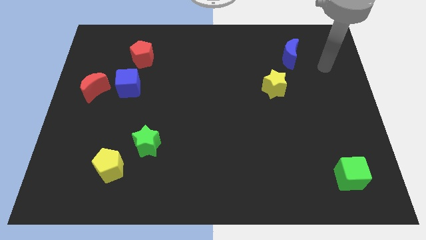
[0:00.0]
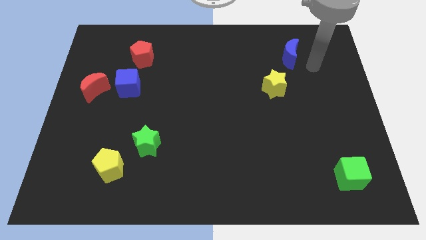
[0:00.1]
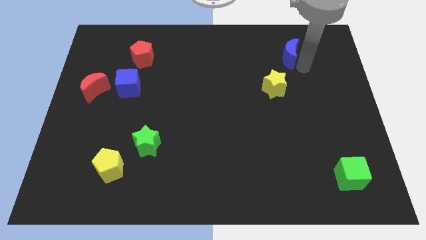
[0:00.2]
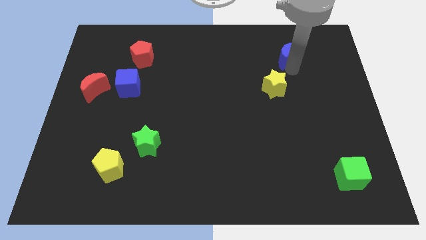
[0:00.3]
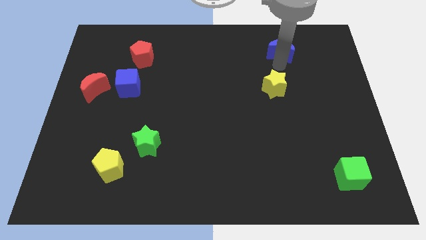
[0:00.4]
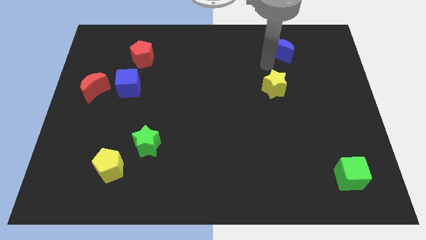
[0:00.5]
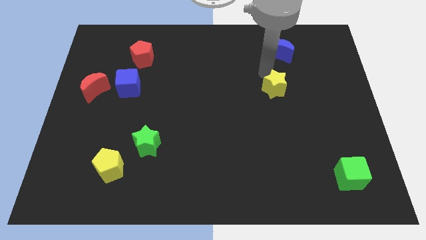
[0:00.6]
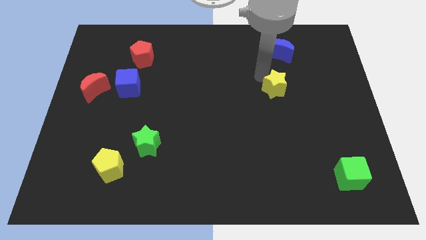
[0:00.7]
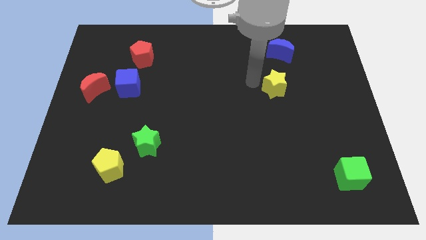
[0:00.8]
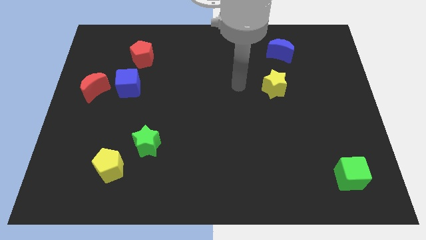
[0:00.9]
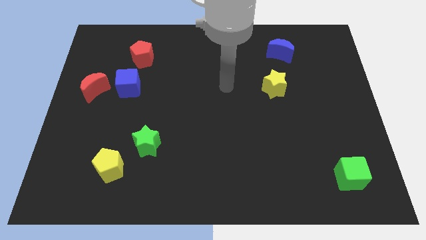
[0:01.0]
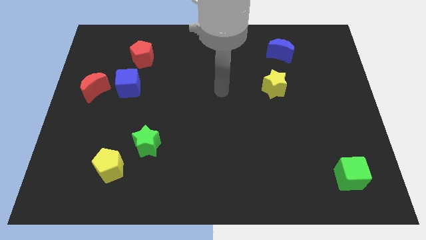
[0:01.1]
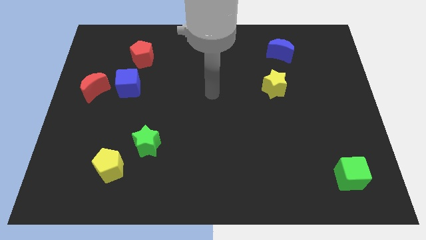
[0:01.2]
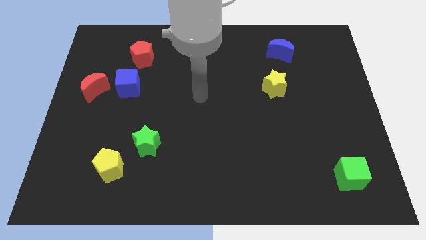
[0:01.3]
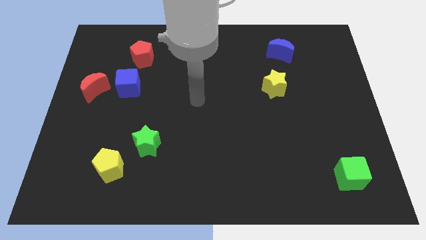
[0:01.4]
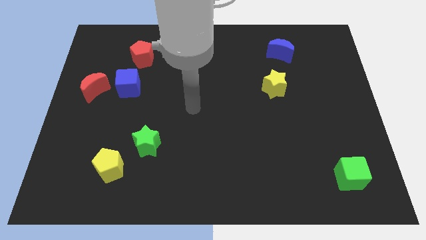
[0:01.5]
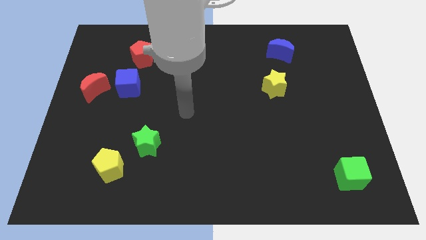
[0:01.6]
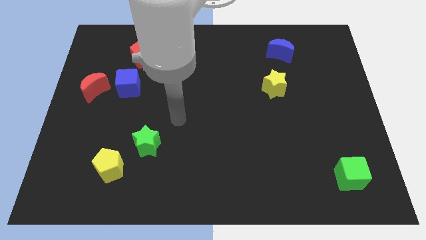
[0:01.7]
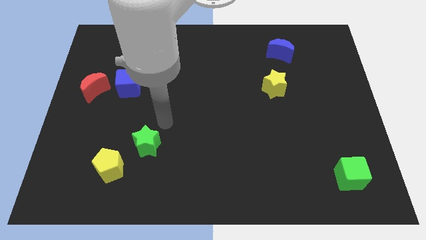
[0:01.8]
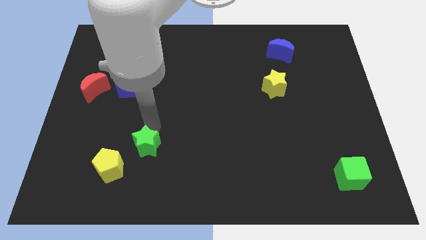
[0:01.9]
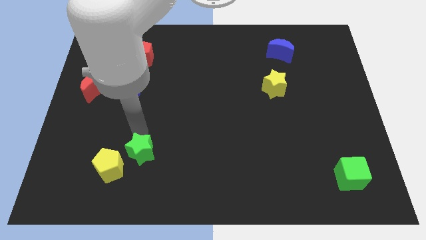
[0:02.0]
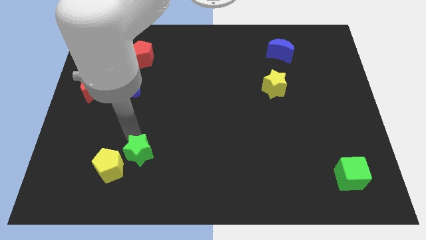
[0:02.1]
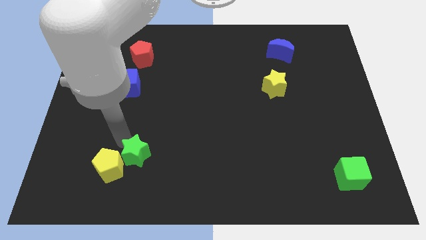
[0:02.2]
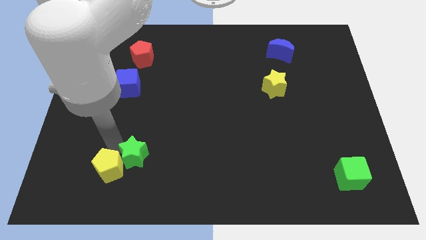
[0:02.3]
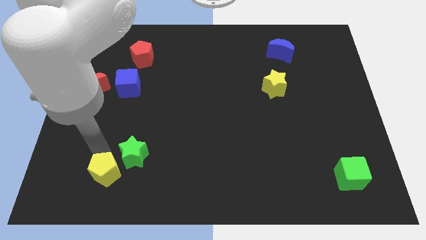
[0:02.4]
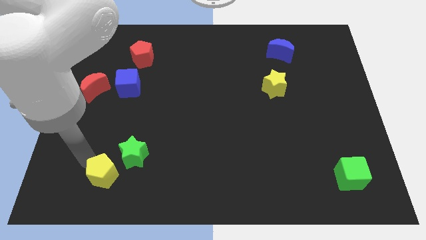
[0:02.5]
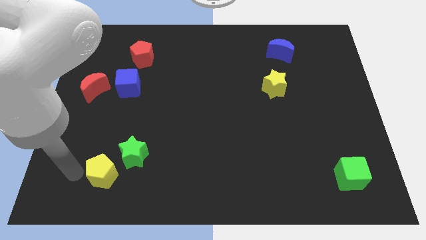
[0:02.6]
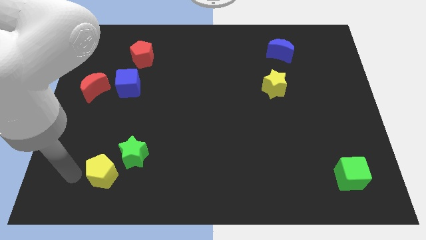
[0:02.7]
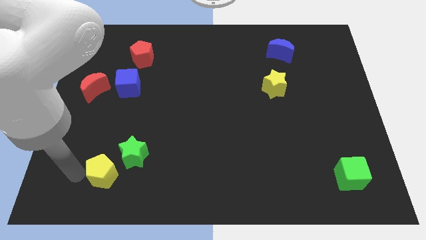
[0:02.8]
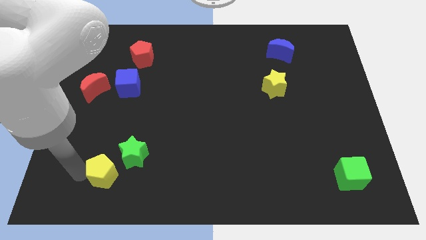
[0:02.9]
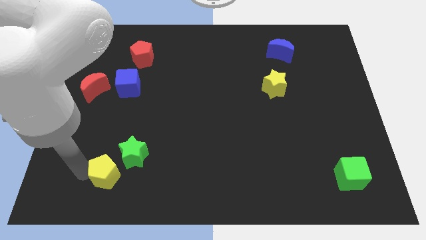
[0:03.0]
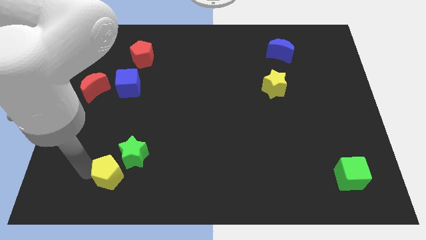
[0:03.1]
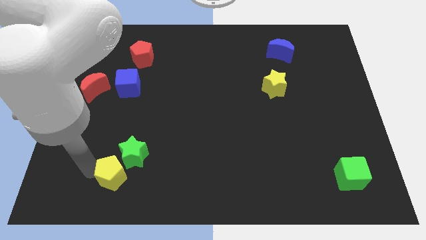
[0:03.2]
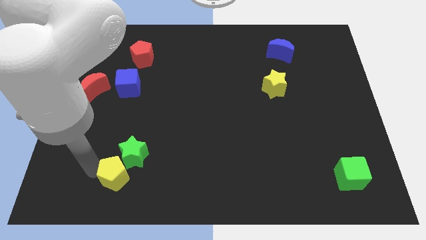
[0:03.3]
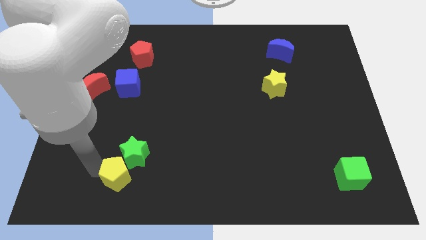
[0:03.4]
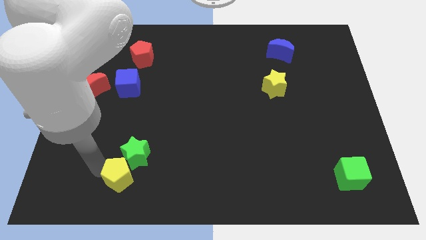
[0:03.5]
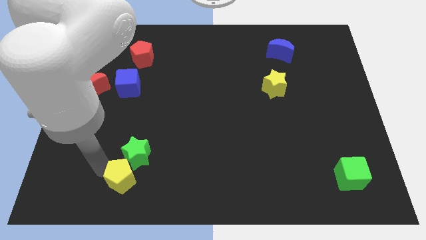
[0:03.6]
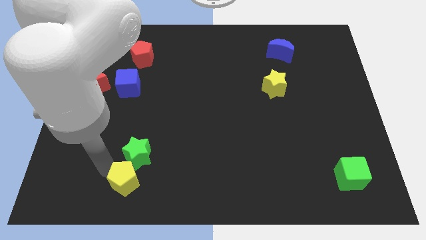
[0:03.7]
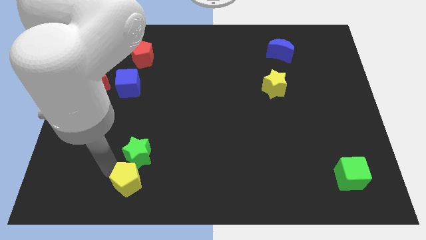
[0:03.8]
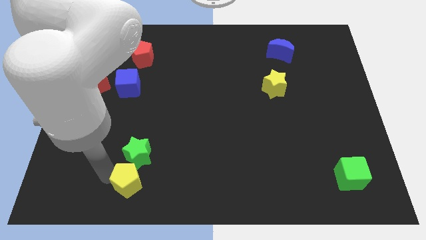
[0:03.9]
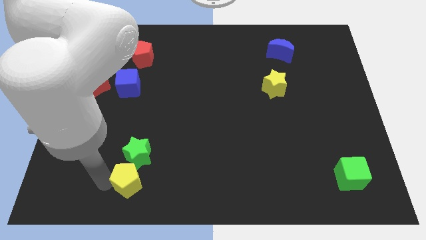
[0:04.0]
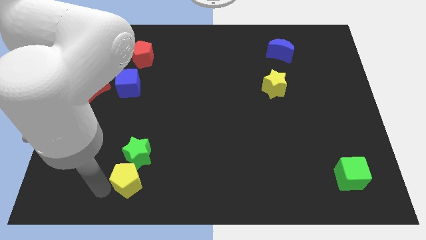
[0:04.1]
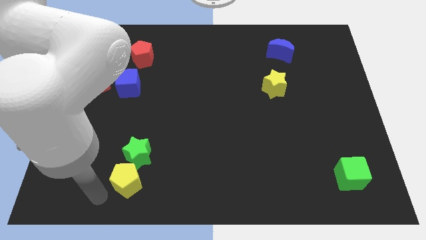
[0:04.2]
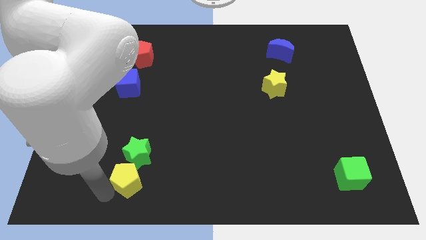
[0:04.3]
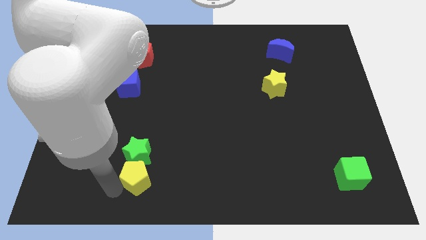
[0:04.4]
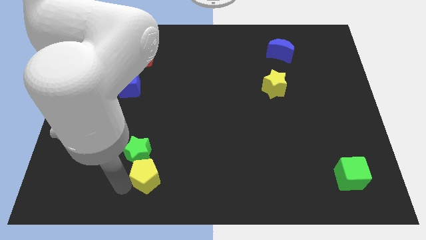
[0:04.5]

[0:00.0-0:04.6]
move the yellow pentagon a little bit to the right

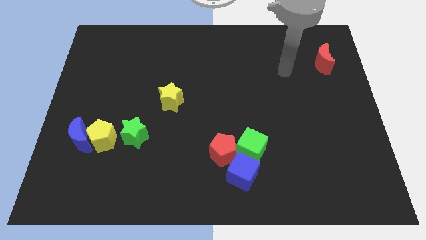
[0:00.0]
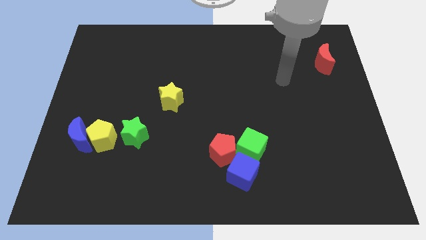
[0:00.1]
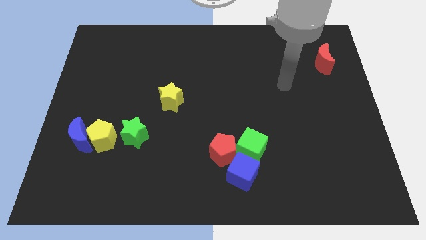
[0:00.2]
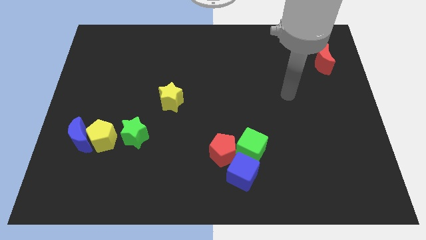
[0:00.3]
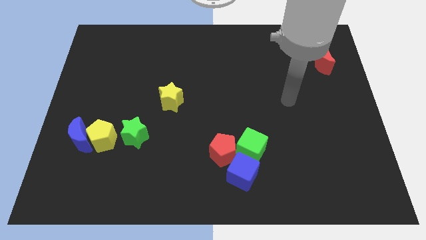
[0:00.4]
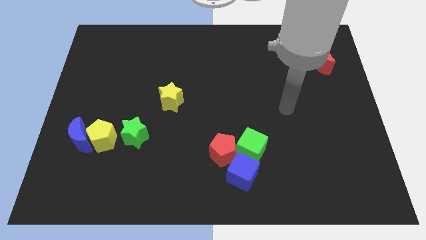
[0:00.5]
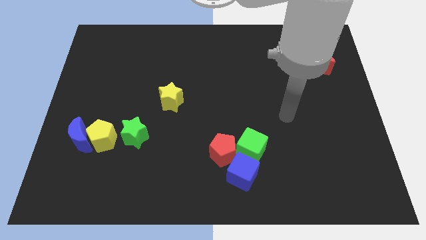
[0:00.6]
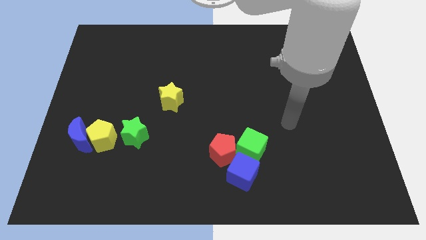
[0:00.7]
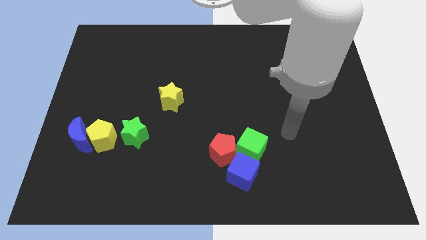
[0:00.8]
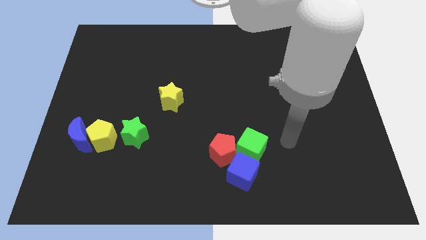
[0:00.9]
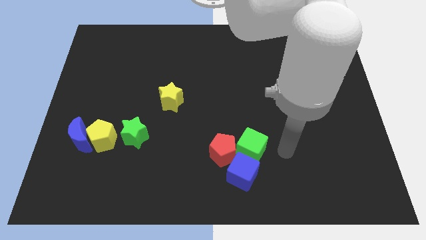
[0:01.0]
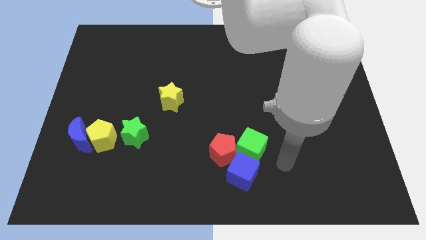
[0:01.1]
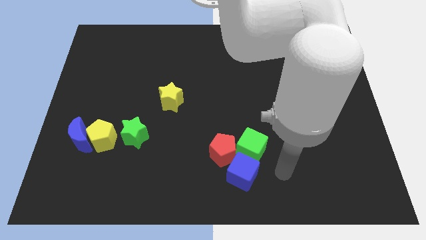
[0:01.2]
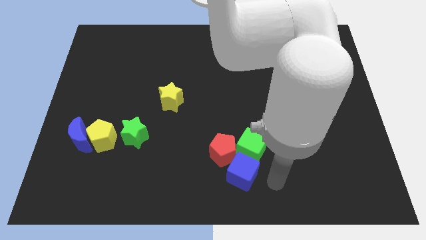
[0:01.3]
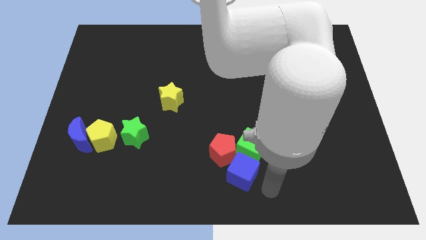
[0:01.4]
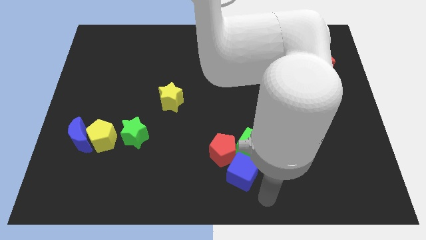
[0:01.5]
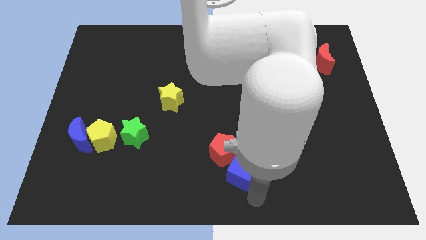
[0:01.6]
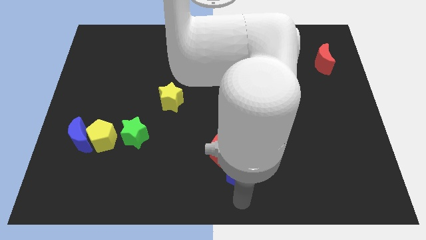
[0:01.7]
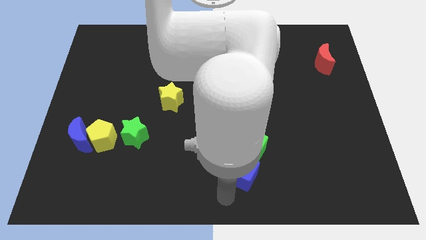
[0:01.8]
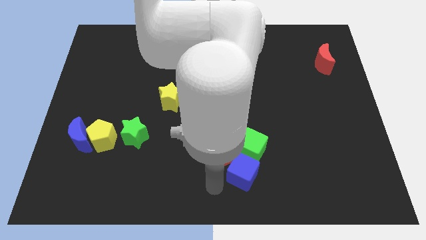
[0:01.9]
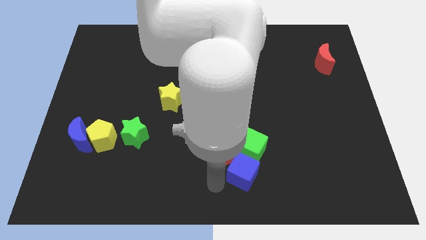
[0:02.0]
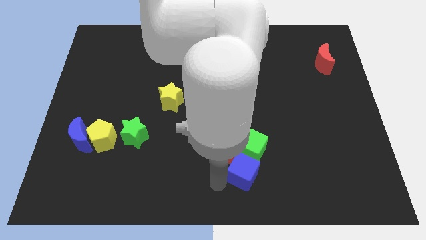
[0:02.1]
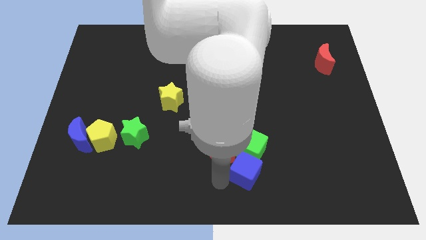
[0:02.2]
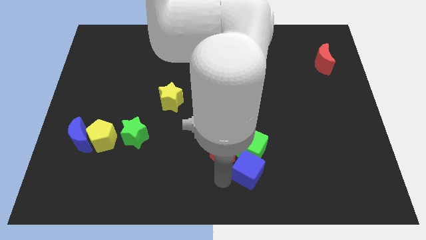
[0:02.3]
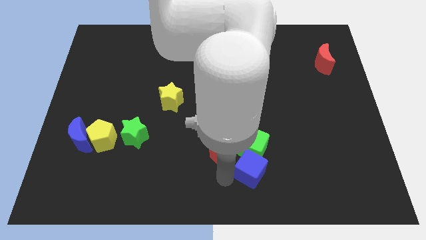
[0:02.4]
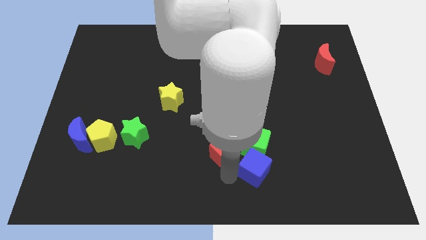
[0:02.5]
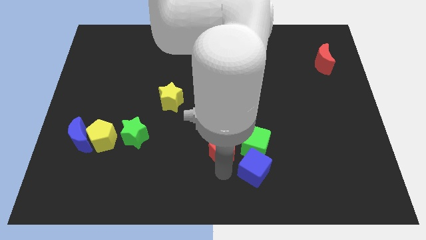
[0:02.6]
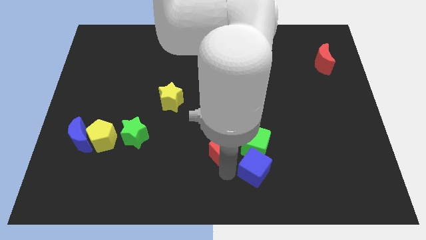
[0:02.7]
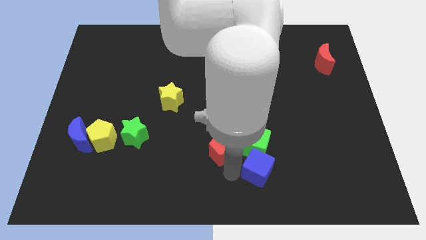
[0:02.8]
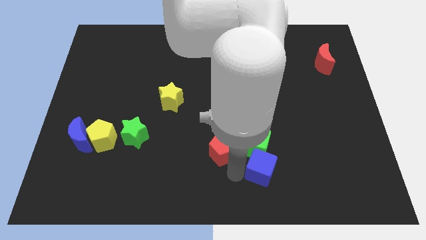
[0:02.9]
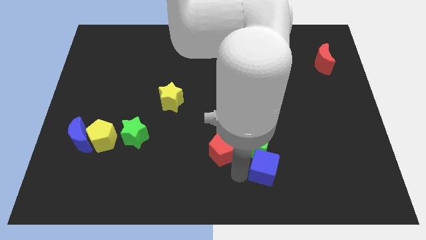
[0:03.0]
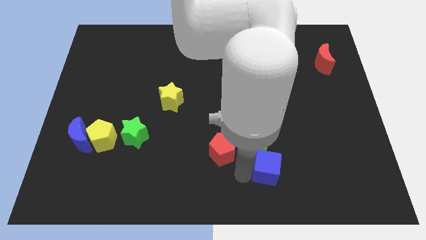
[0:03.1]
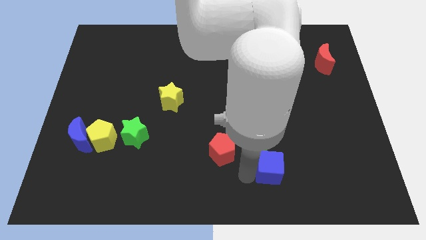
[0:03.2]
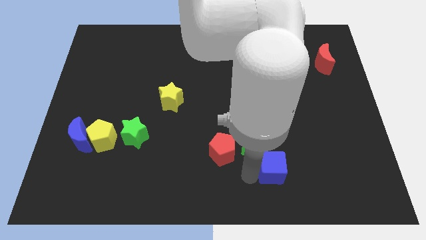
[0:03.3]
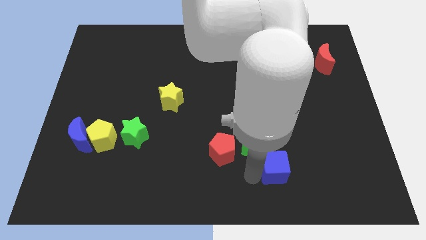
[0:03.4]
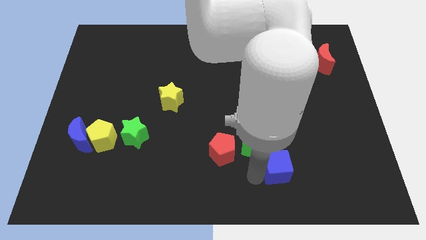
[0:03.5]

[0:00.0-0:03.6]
push the blue cube a little bit right
